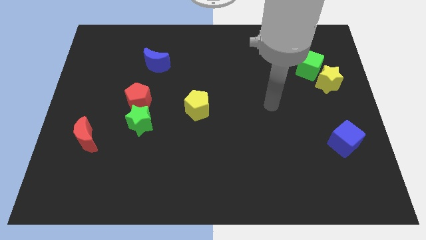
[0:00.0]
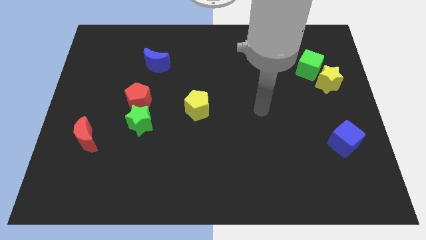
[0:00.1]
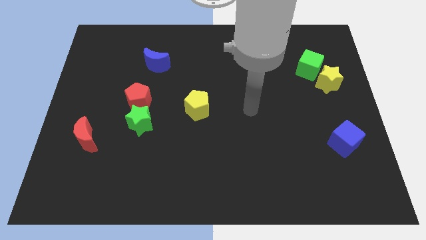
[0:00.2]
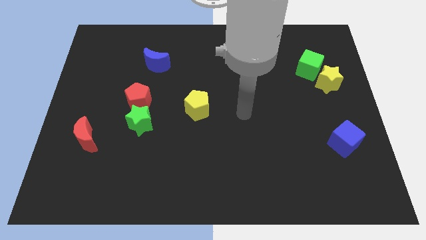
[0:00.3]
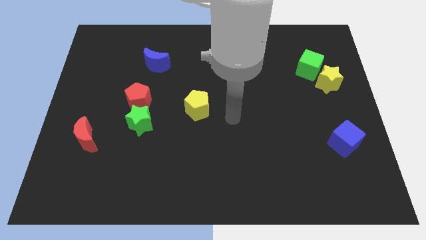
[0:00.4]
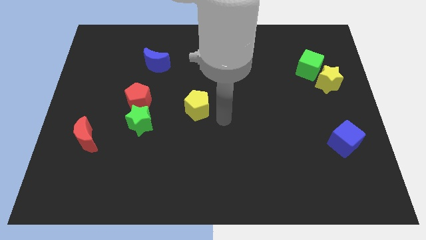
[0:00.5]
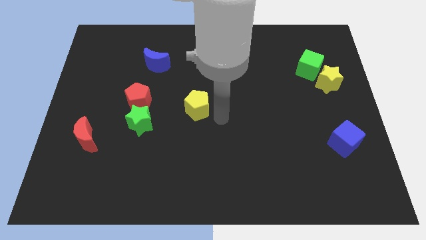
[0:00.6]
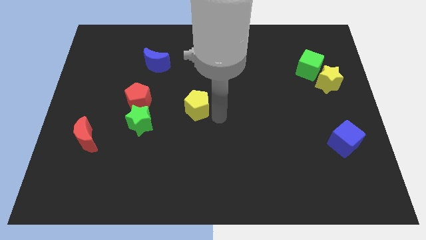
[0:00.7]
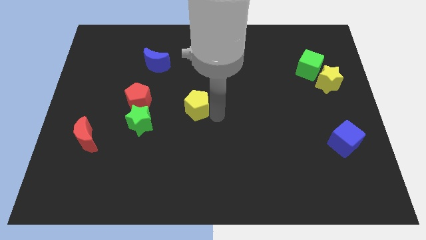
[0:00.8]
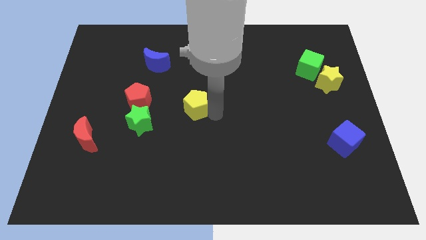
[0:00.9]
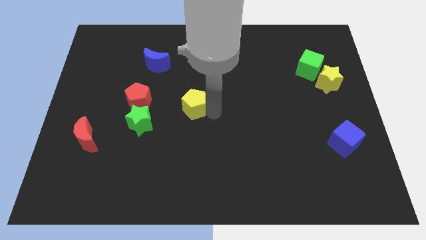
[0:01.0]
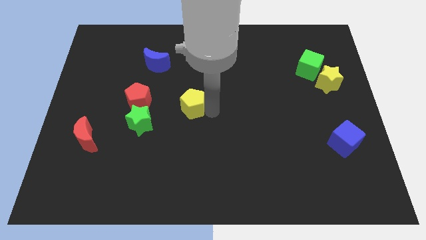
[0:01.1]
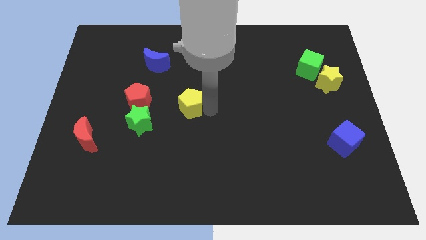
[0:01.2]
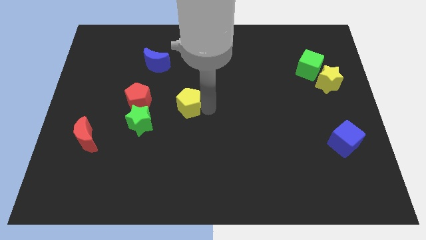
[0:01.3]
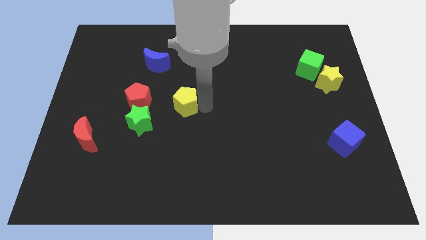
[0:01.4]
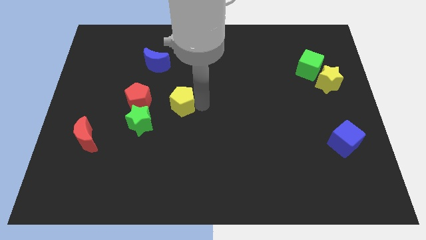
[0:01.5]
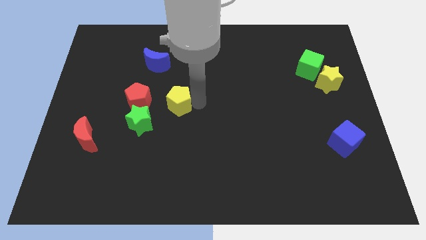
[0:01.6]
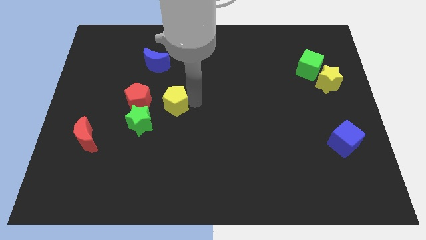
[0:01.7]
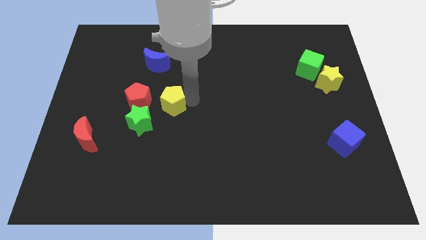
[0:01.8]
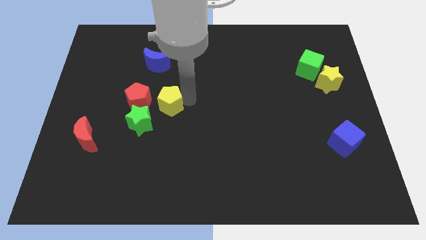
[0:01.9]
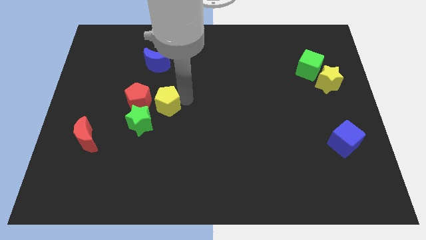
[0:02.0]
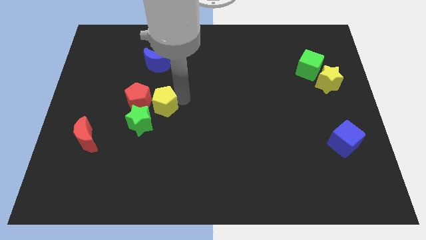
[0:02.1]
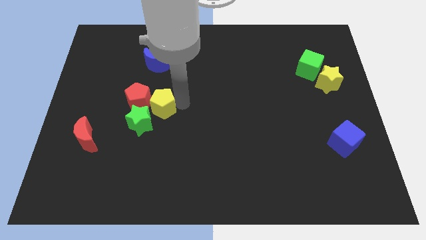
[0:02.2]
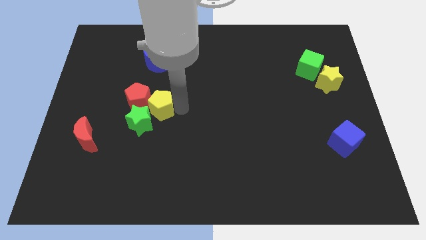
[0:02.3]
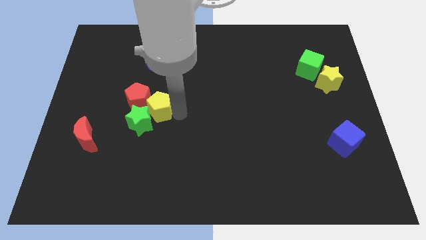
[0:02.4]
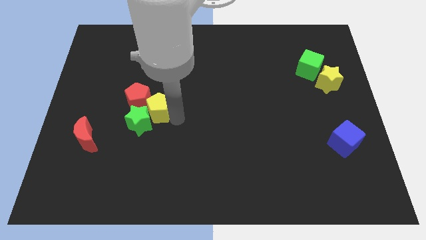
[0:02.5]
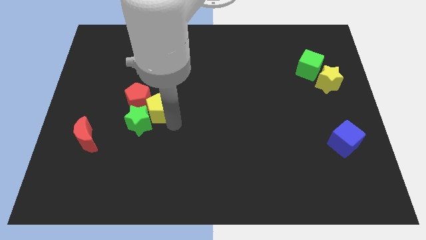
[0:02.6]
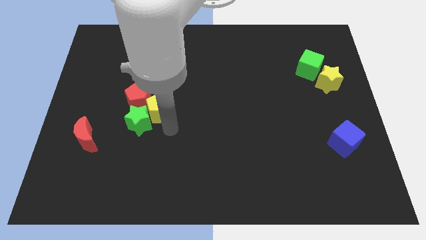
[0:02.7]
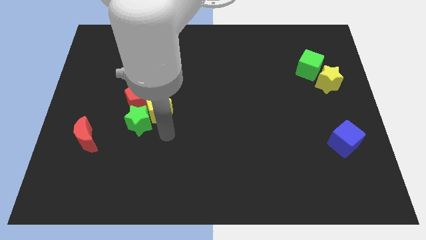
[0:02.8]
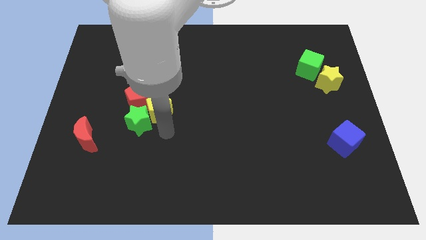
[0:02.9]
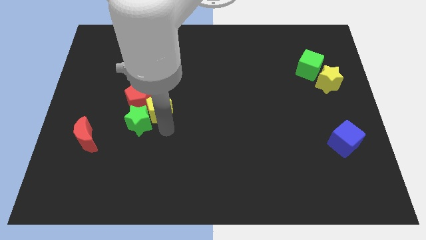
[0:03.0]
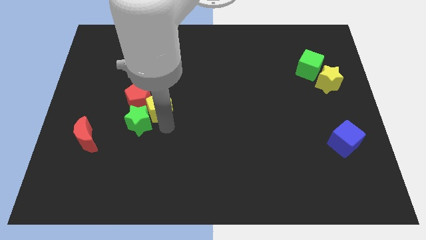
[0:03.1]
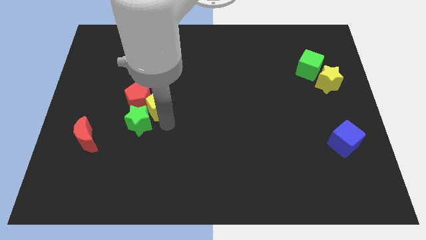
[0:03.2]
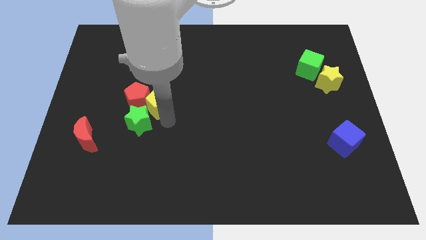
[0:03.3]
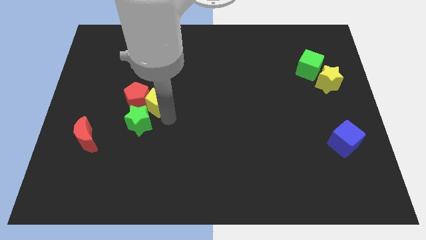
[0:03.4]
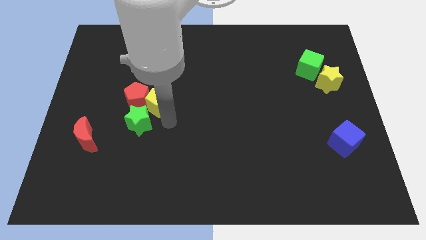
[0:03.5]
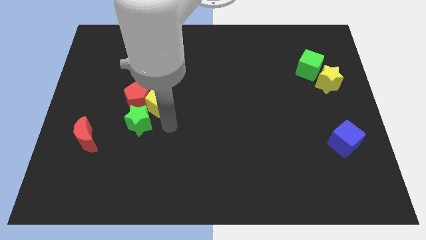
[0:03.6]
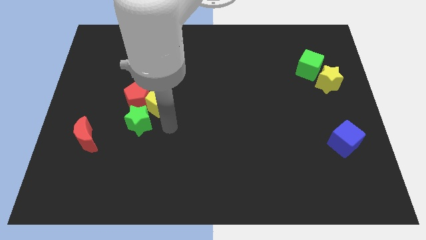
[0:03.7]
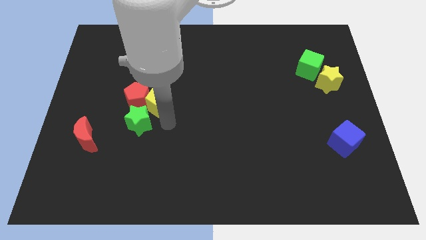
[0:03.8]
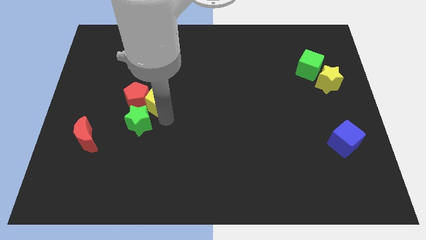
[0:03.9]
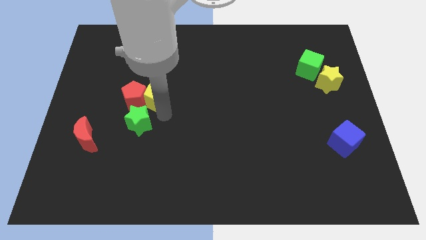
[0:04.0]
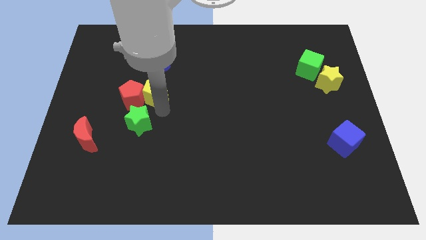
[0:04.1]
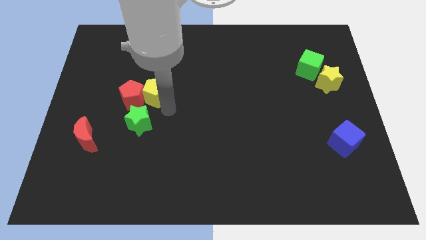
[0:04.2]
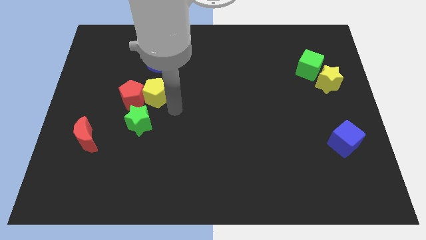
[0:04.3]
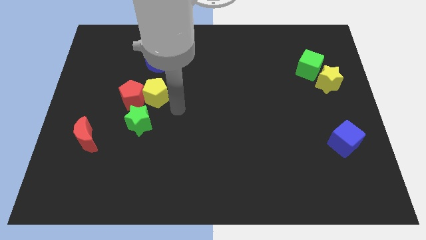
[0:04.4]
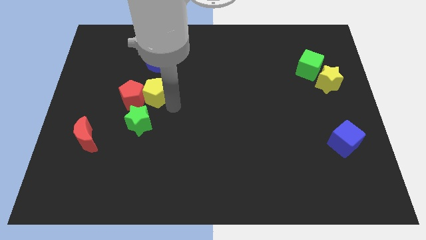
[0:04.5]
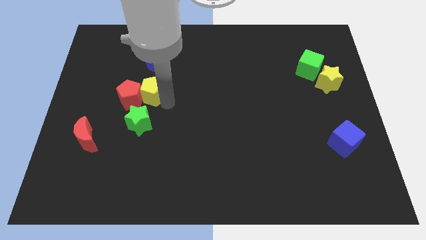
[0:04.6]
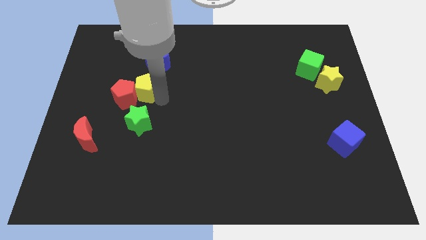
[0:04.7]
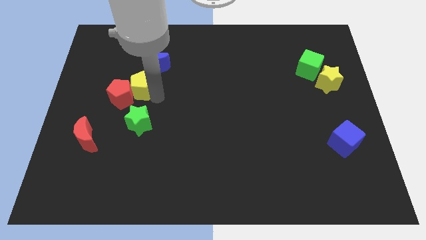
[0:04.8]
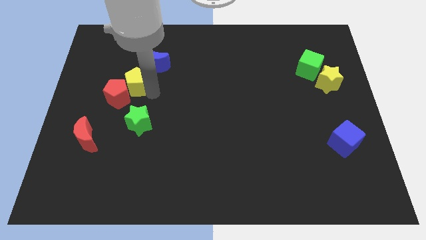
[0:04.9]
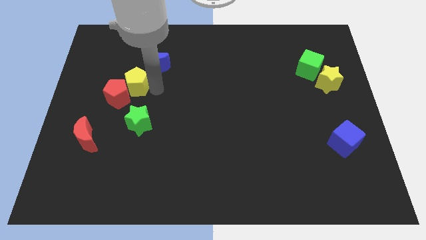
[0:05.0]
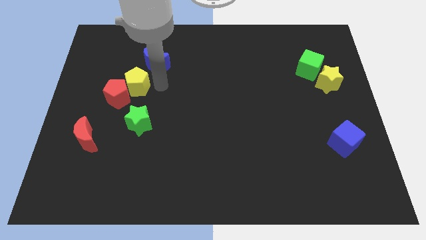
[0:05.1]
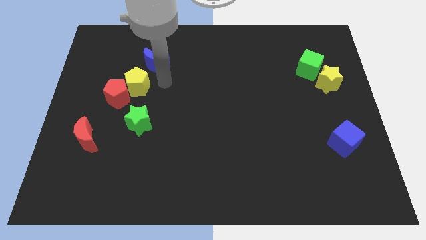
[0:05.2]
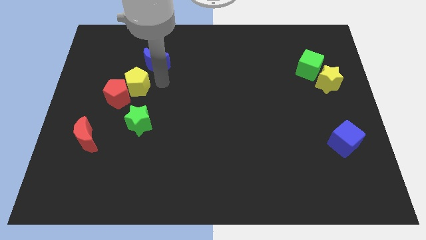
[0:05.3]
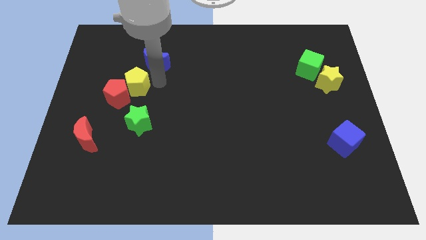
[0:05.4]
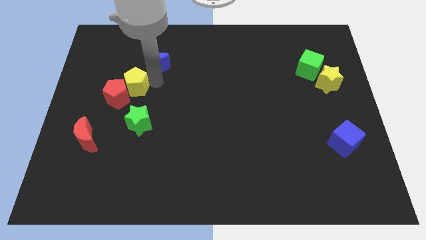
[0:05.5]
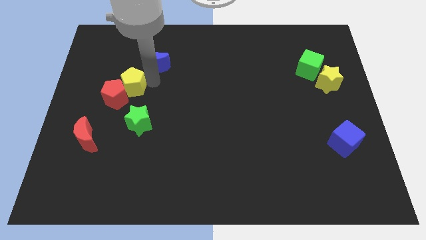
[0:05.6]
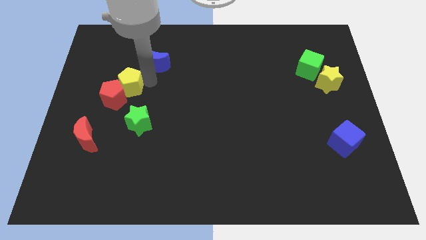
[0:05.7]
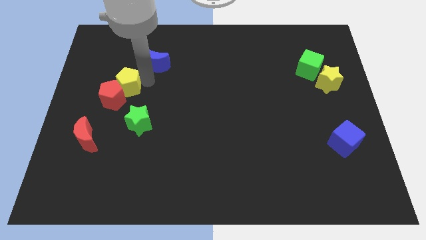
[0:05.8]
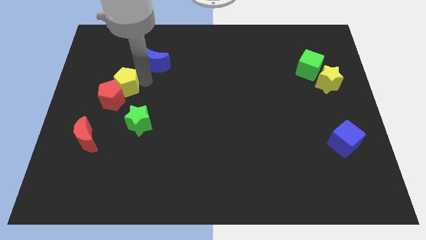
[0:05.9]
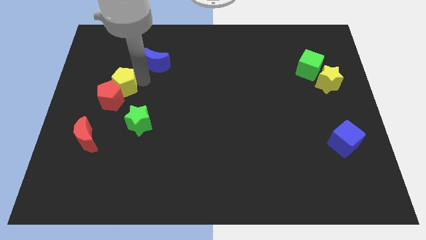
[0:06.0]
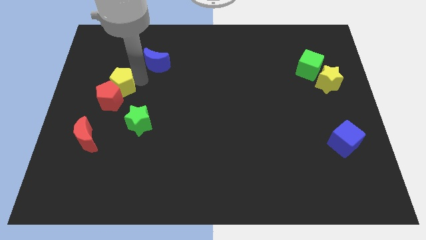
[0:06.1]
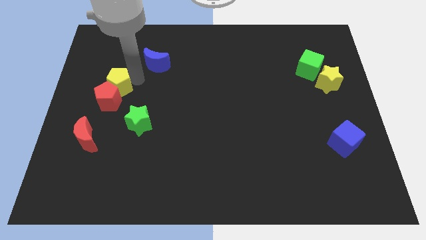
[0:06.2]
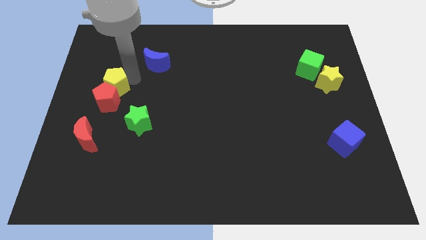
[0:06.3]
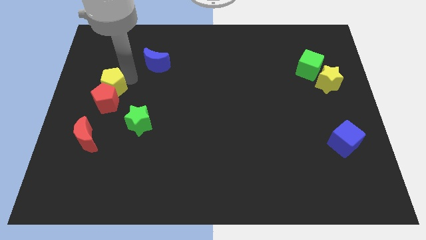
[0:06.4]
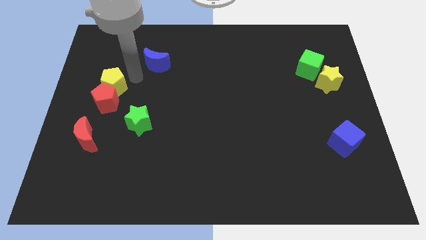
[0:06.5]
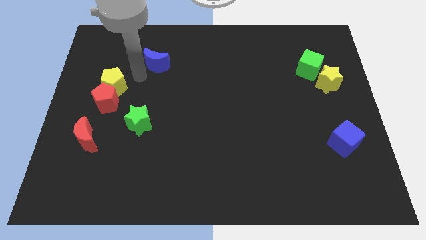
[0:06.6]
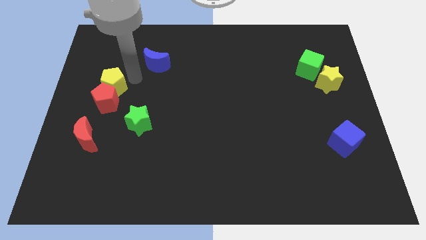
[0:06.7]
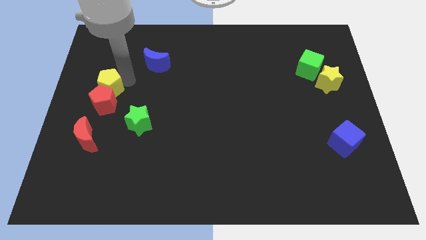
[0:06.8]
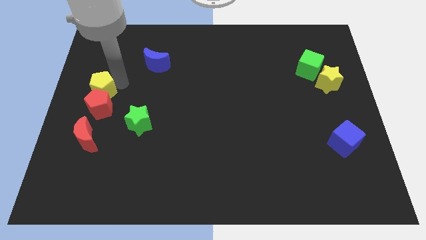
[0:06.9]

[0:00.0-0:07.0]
slide the yellow pentagon to the left side of the board

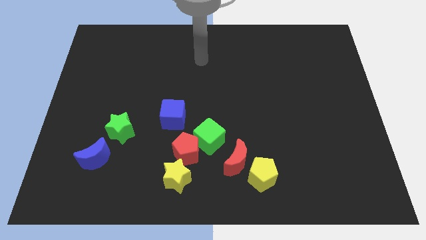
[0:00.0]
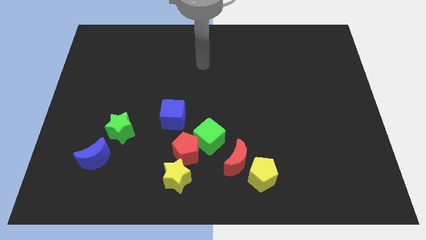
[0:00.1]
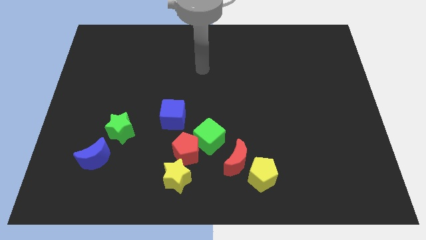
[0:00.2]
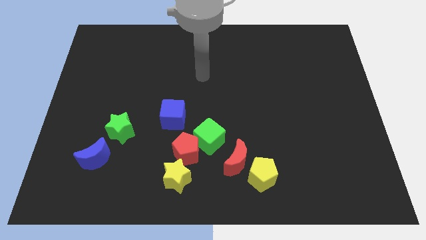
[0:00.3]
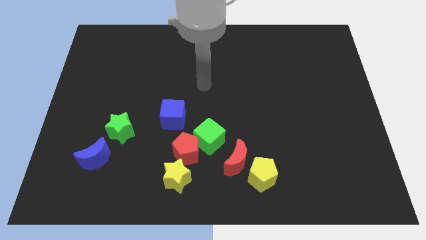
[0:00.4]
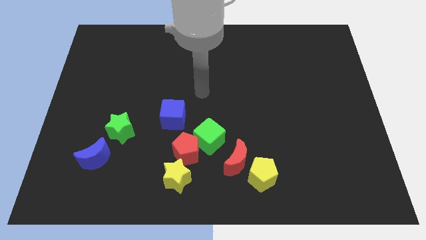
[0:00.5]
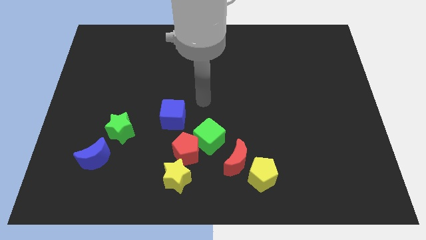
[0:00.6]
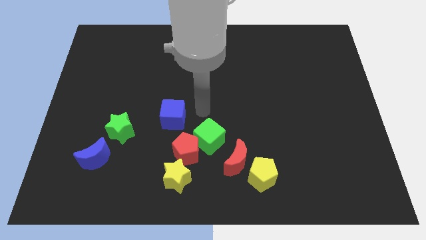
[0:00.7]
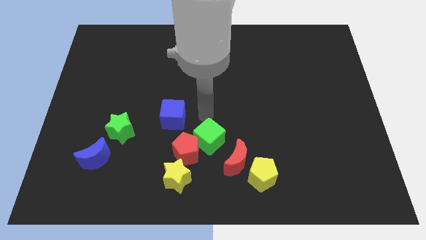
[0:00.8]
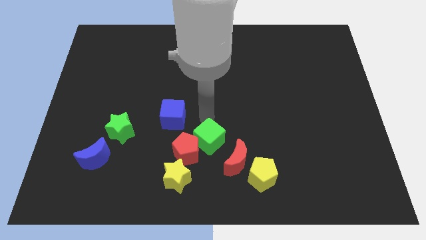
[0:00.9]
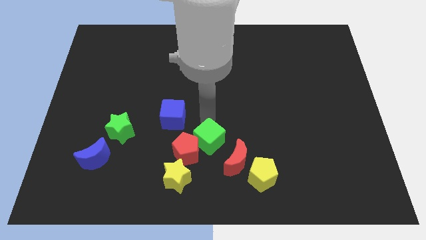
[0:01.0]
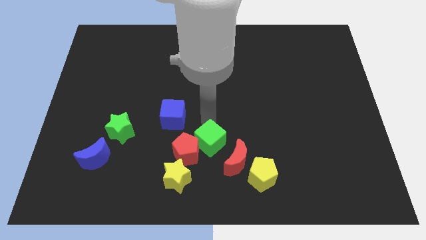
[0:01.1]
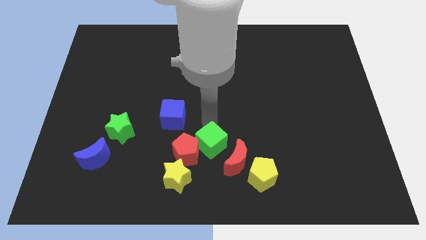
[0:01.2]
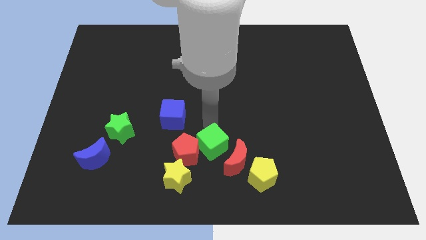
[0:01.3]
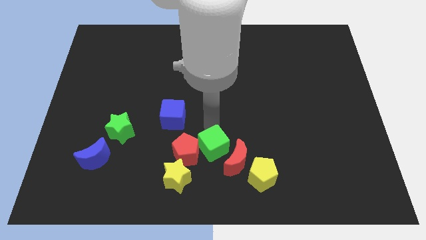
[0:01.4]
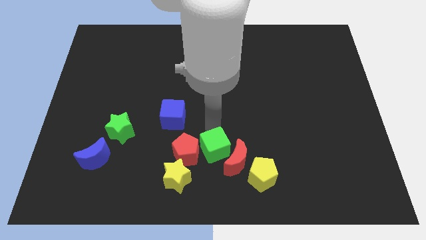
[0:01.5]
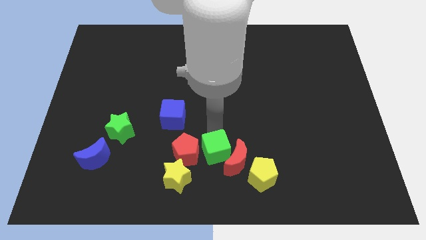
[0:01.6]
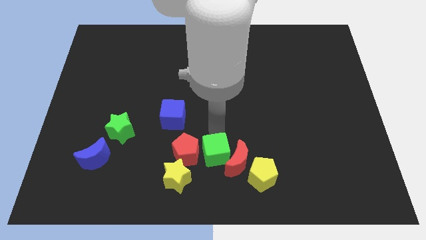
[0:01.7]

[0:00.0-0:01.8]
push the green cube to the bottom
